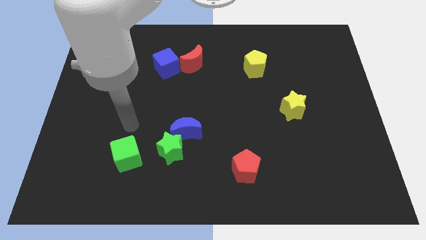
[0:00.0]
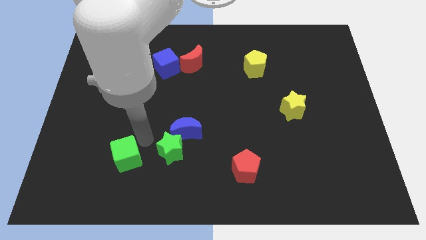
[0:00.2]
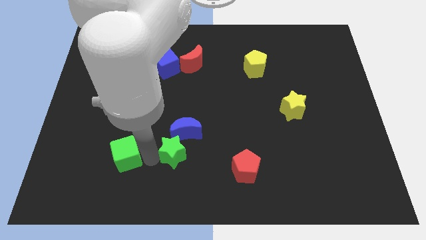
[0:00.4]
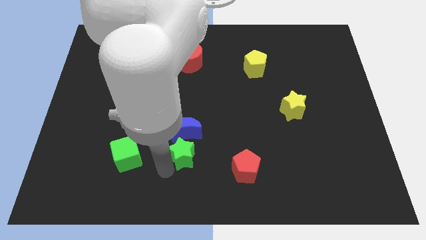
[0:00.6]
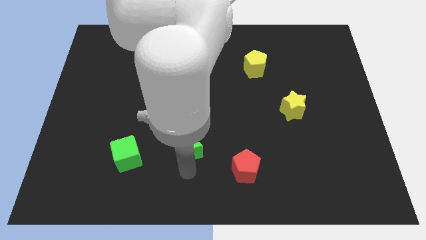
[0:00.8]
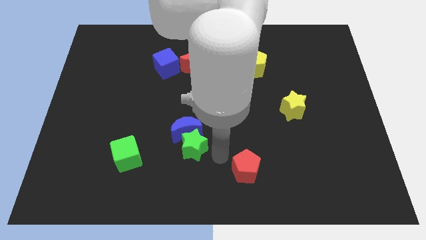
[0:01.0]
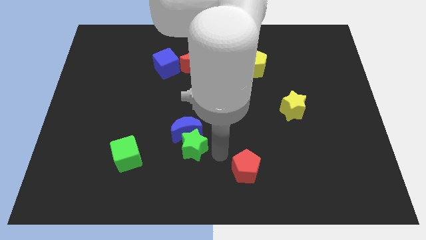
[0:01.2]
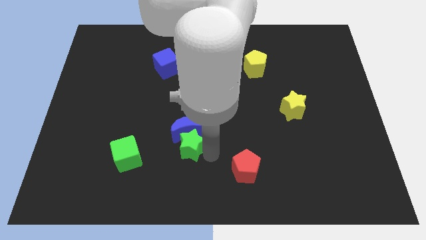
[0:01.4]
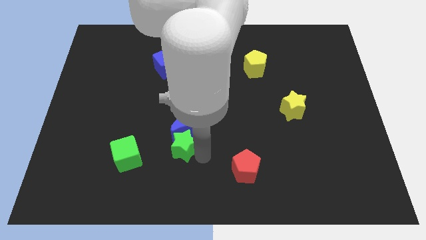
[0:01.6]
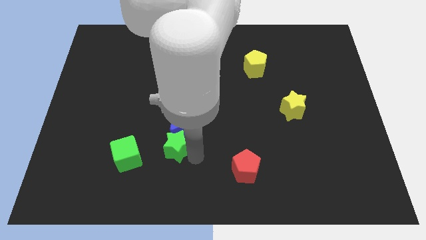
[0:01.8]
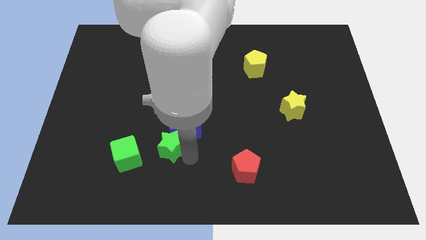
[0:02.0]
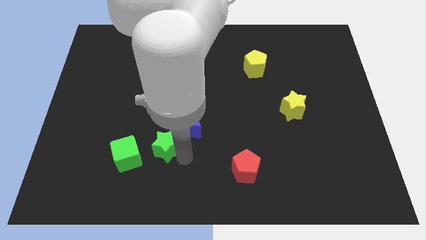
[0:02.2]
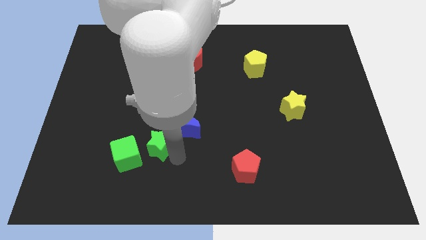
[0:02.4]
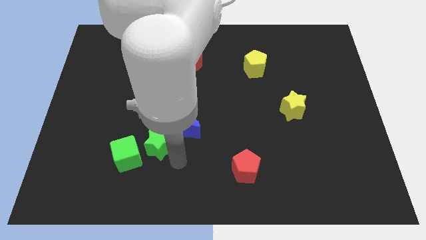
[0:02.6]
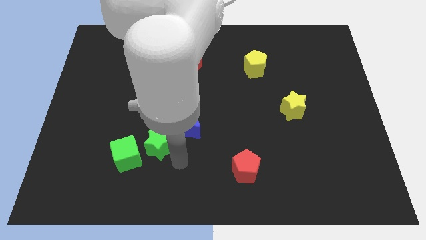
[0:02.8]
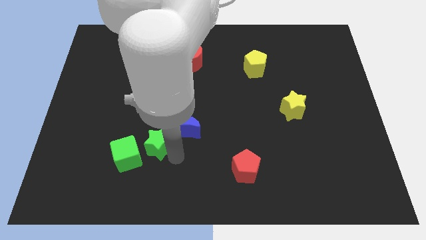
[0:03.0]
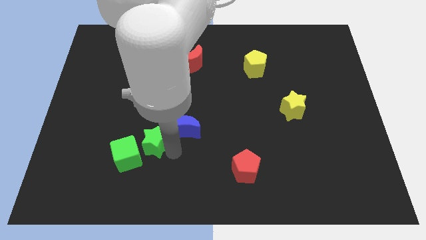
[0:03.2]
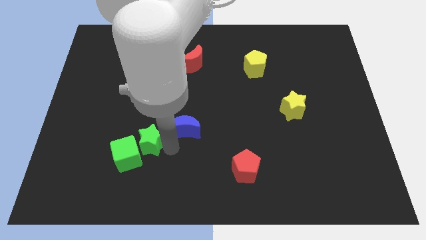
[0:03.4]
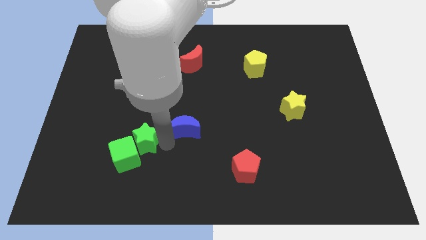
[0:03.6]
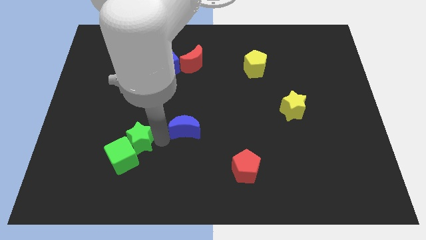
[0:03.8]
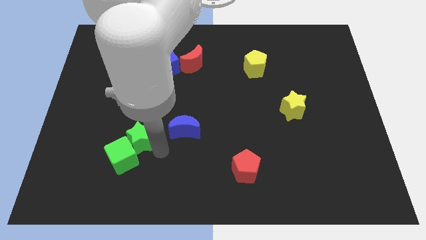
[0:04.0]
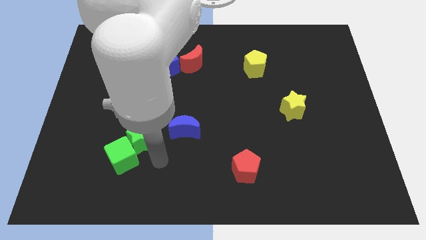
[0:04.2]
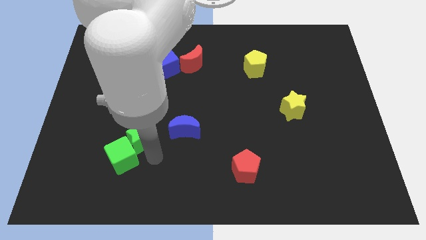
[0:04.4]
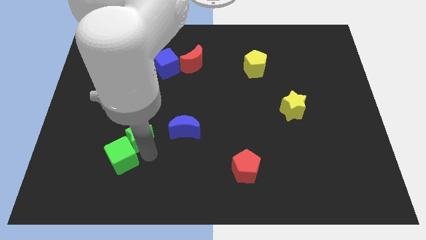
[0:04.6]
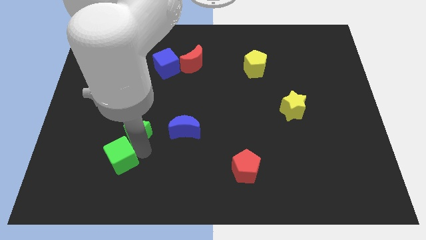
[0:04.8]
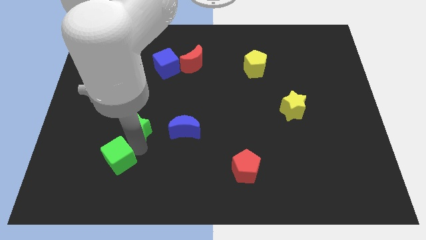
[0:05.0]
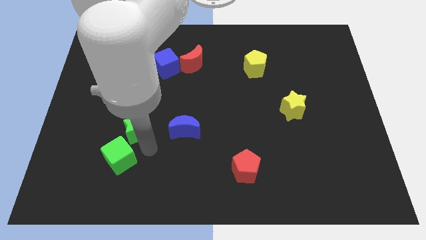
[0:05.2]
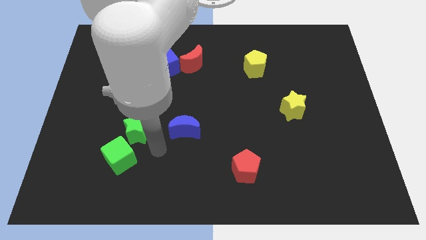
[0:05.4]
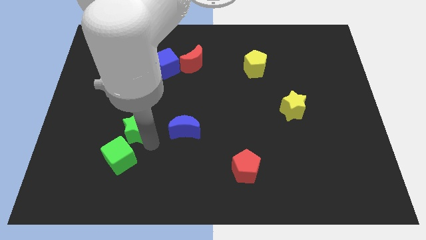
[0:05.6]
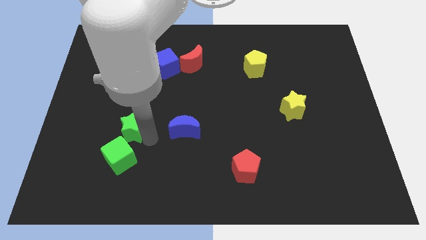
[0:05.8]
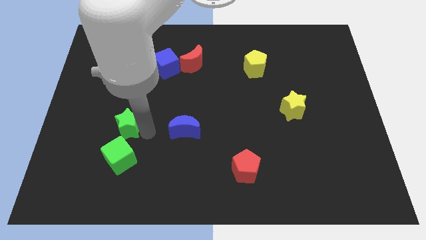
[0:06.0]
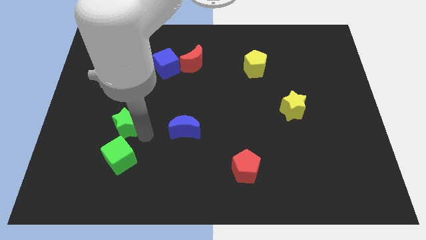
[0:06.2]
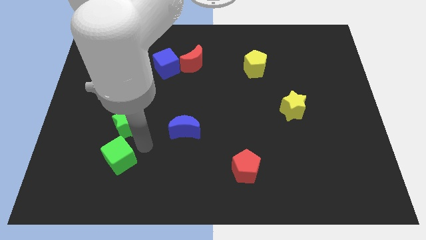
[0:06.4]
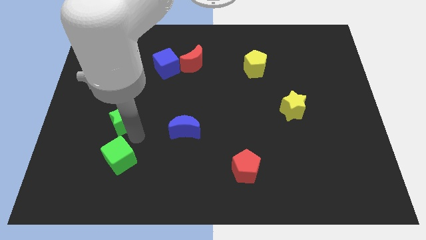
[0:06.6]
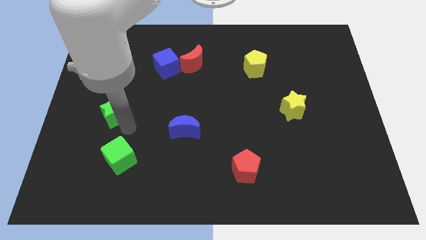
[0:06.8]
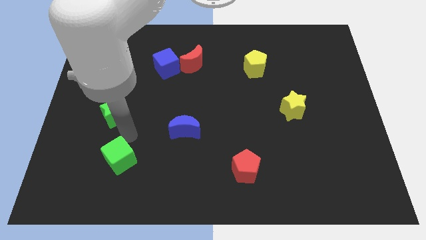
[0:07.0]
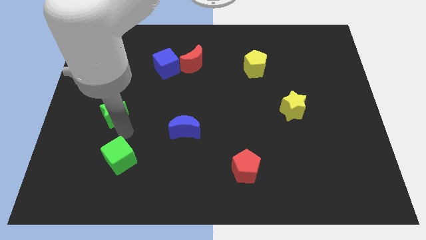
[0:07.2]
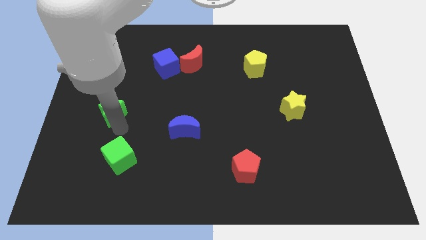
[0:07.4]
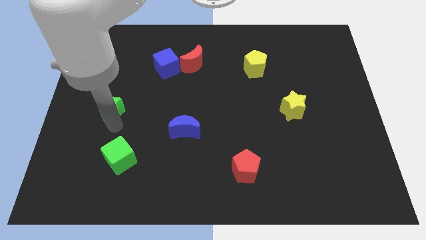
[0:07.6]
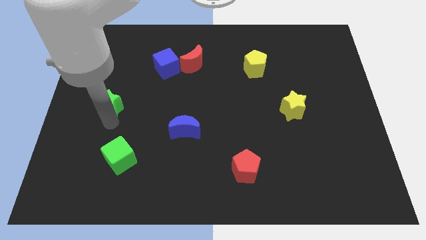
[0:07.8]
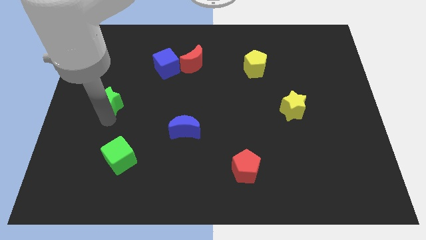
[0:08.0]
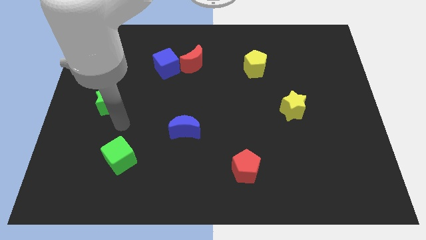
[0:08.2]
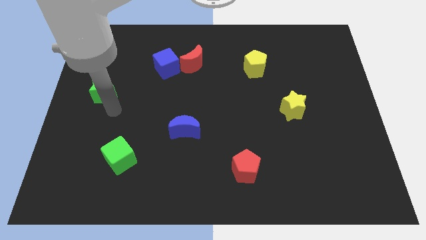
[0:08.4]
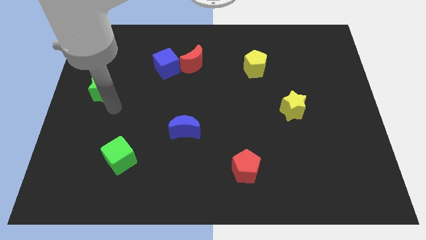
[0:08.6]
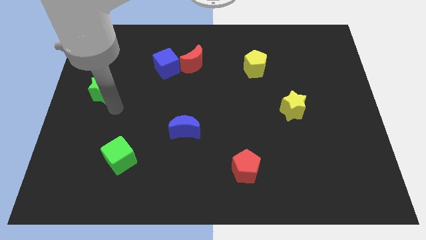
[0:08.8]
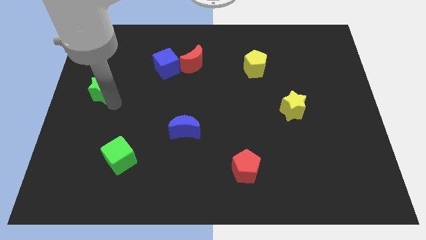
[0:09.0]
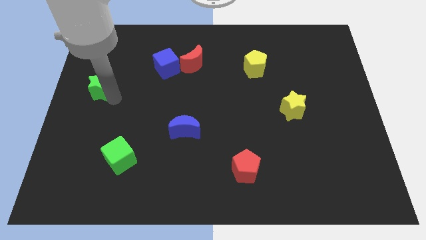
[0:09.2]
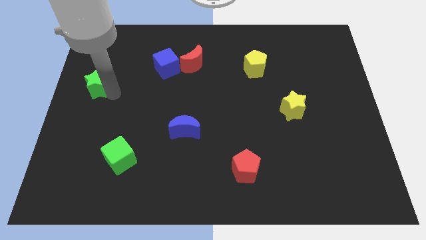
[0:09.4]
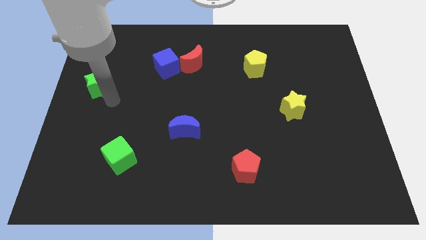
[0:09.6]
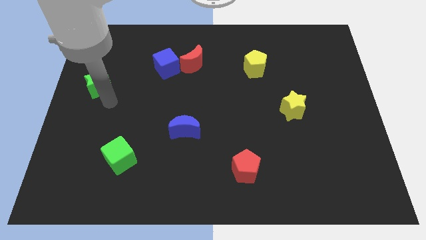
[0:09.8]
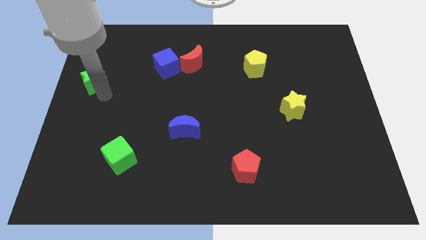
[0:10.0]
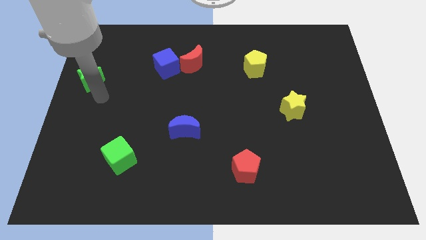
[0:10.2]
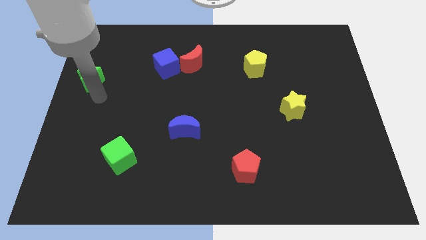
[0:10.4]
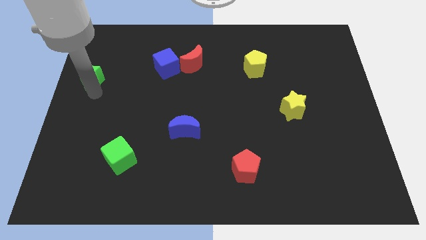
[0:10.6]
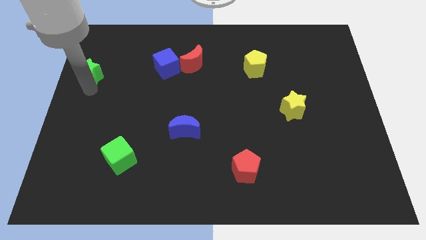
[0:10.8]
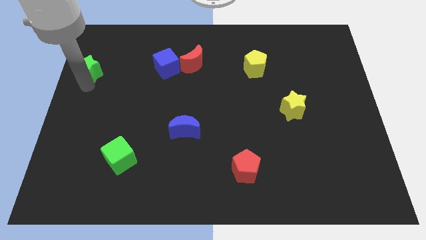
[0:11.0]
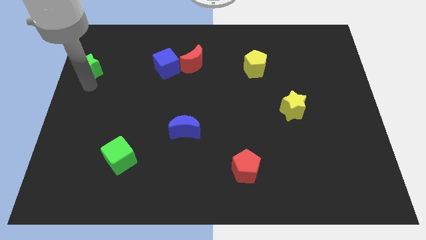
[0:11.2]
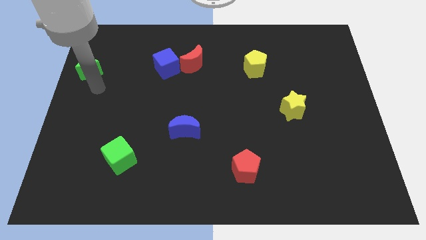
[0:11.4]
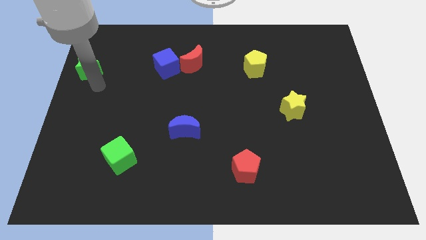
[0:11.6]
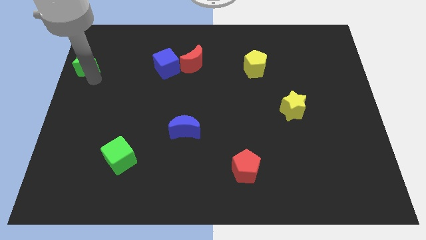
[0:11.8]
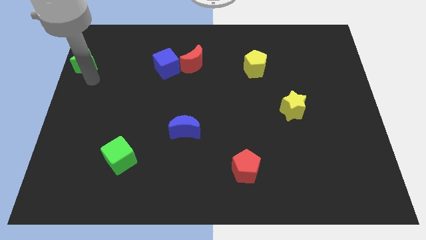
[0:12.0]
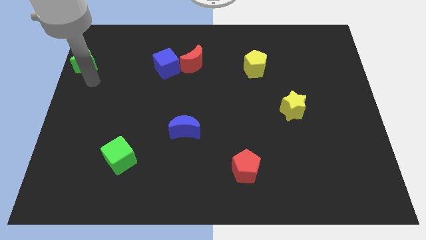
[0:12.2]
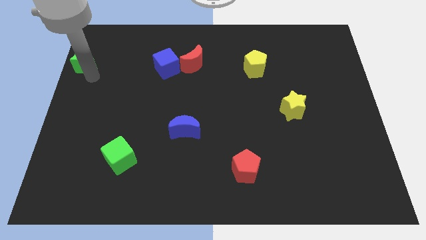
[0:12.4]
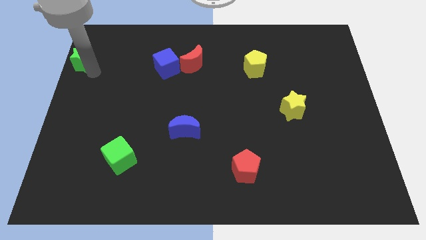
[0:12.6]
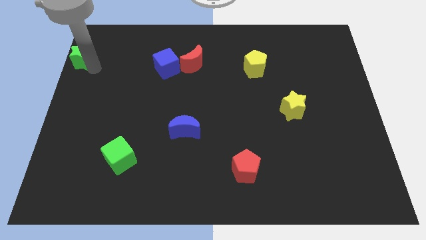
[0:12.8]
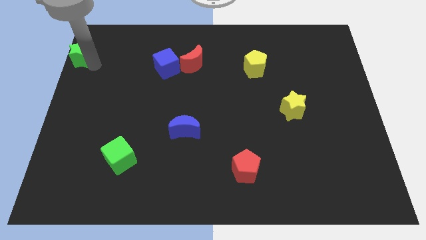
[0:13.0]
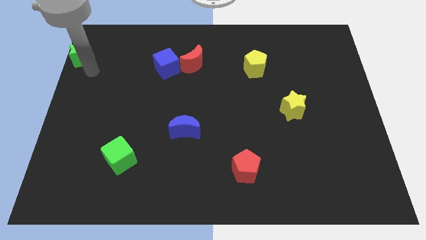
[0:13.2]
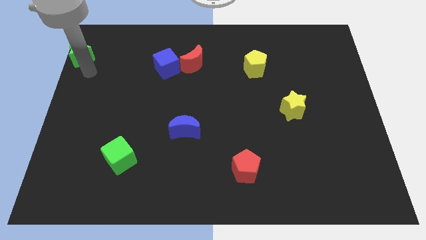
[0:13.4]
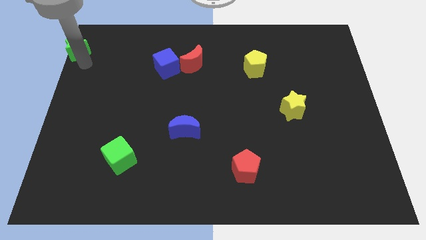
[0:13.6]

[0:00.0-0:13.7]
slide the green star to the top left of the board
